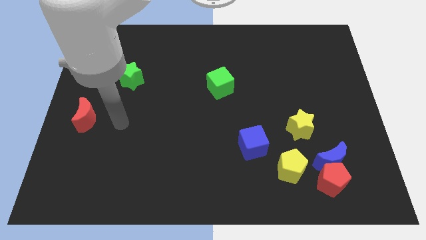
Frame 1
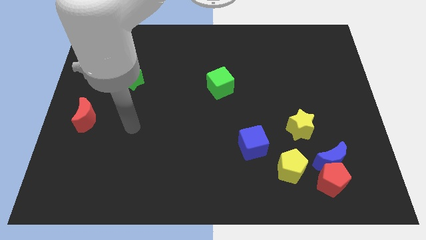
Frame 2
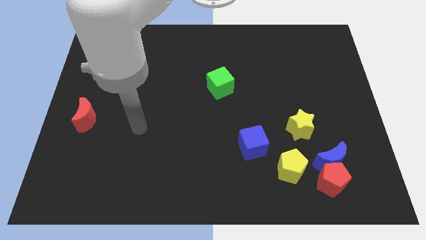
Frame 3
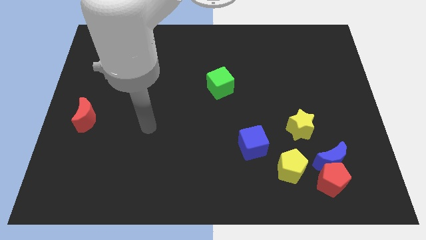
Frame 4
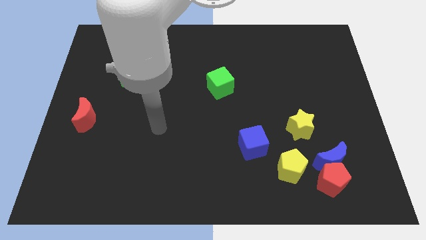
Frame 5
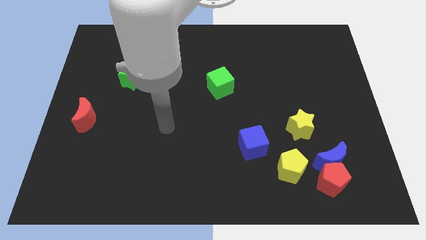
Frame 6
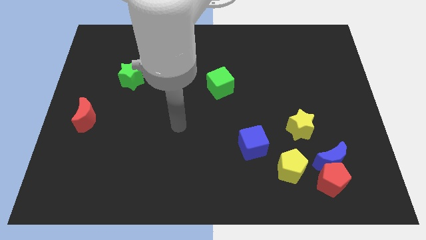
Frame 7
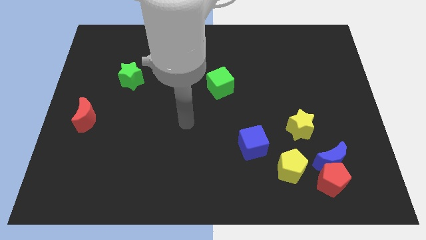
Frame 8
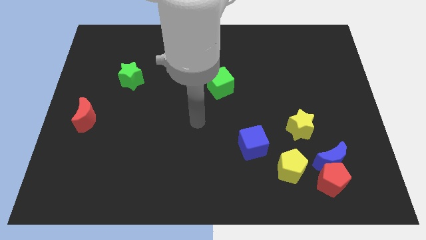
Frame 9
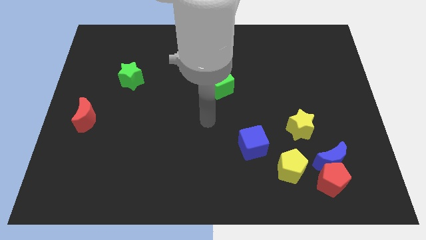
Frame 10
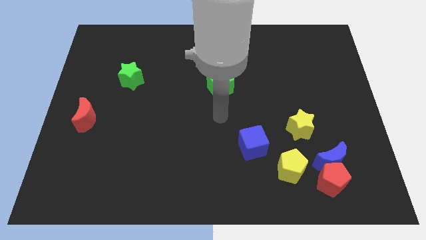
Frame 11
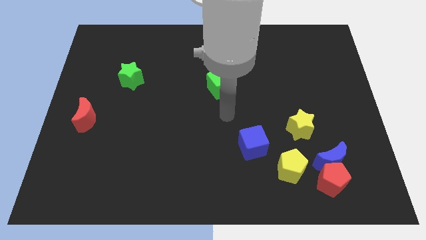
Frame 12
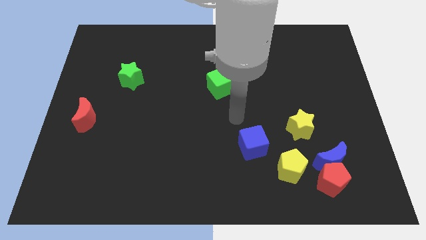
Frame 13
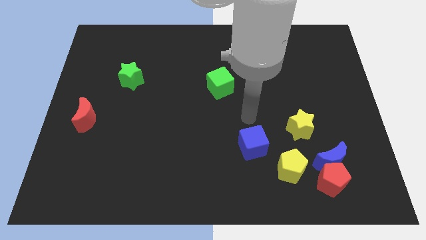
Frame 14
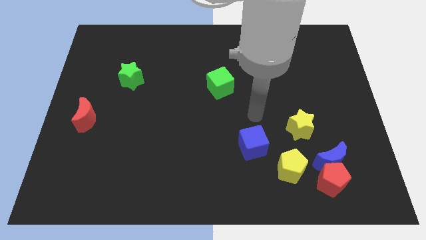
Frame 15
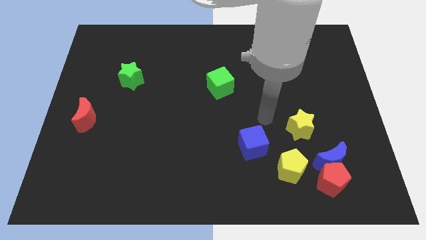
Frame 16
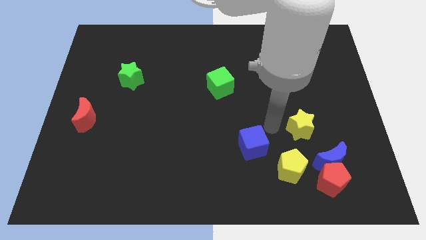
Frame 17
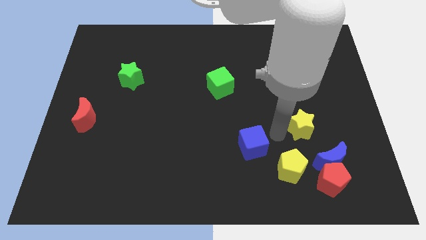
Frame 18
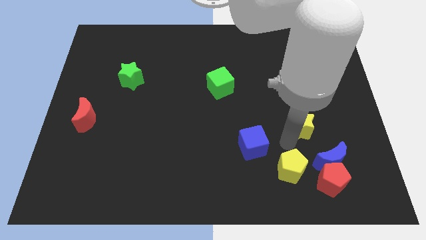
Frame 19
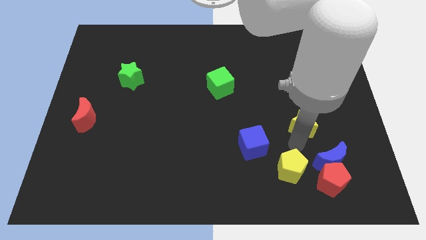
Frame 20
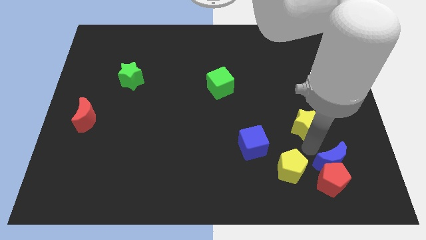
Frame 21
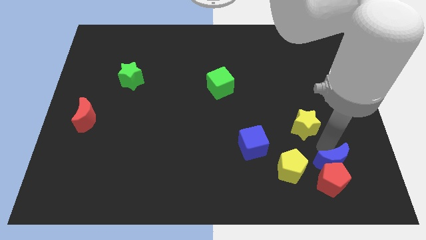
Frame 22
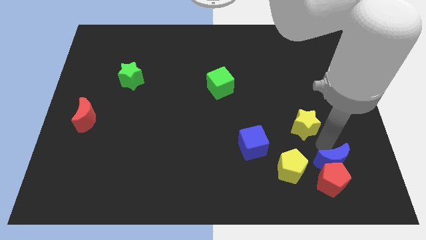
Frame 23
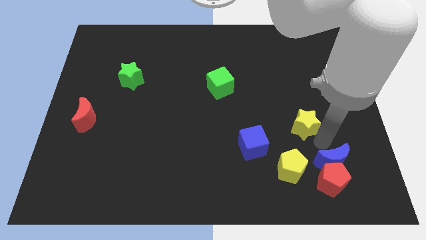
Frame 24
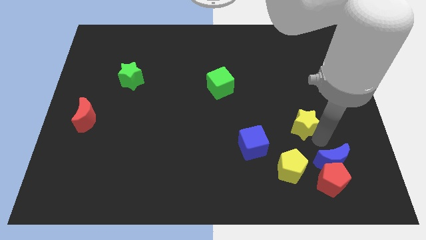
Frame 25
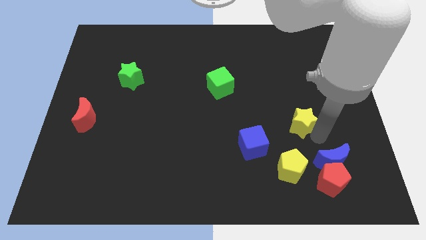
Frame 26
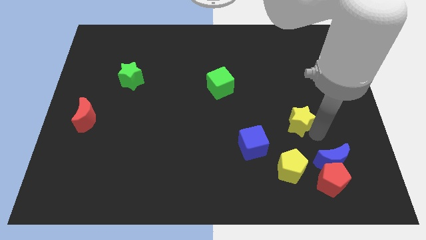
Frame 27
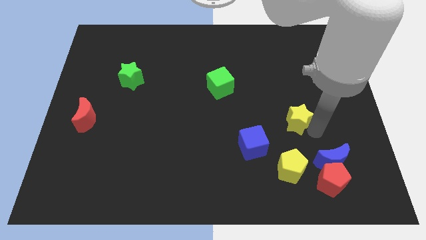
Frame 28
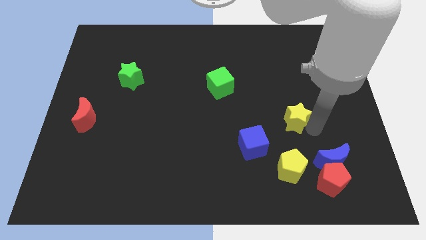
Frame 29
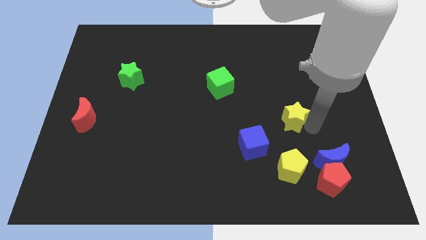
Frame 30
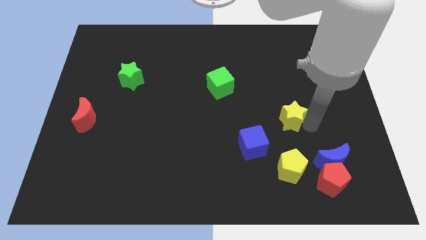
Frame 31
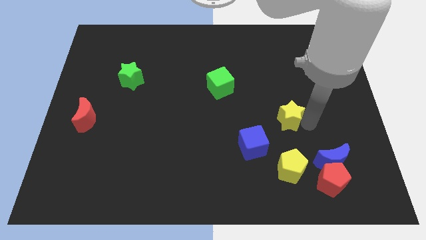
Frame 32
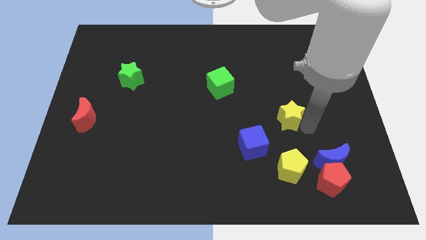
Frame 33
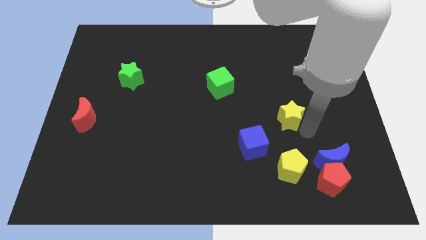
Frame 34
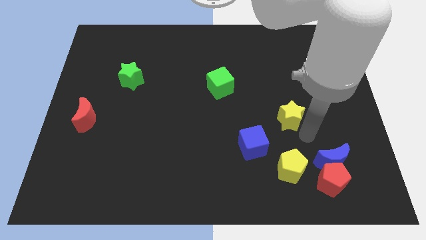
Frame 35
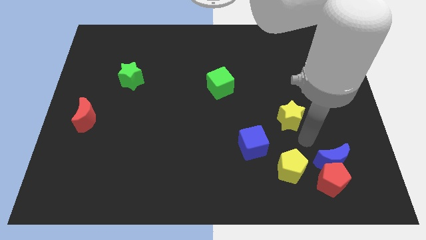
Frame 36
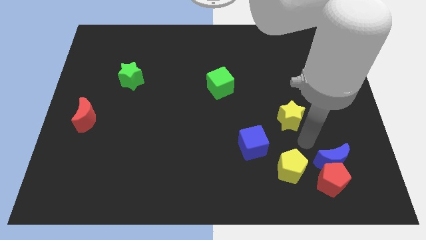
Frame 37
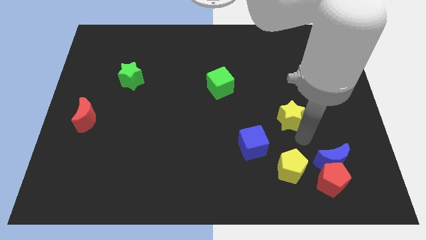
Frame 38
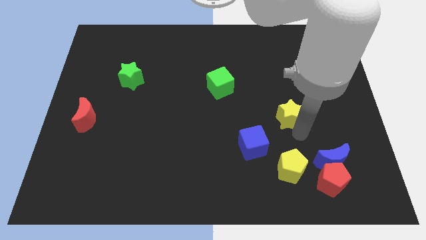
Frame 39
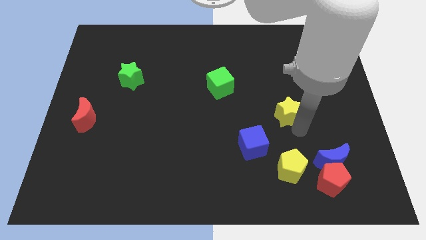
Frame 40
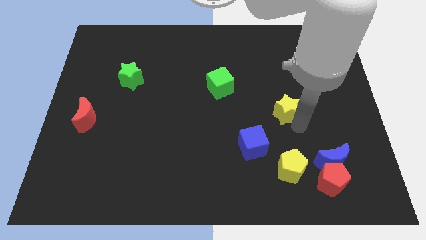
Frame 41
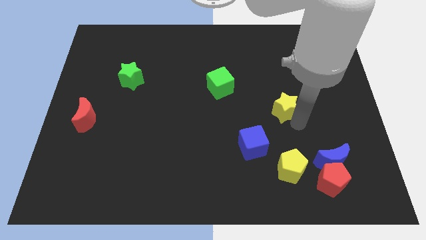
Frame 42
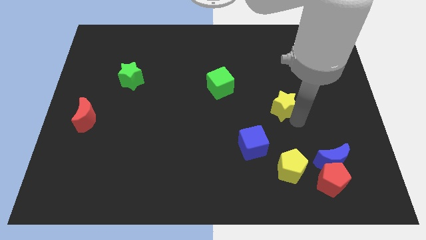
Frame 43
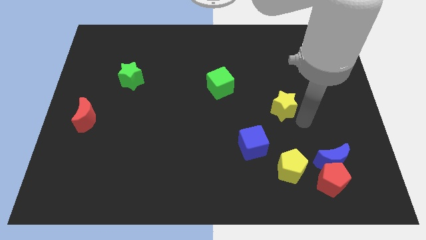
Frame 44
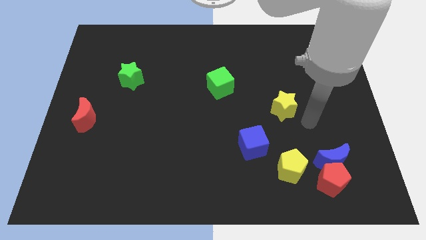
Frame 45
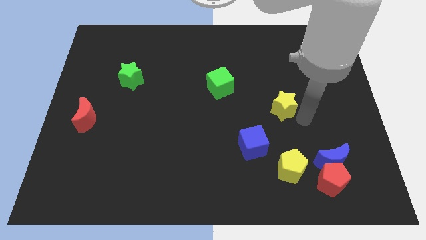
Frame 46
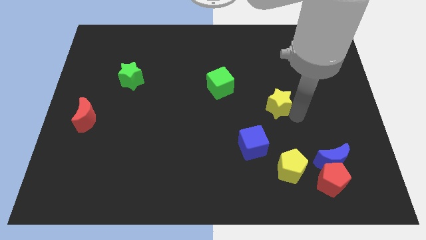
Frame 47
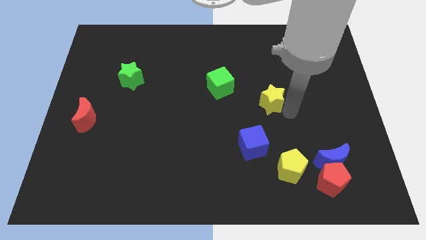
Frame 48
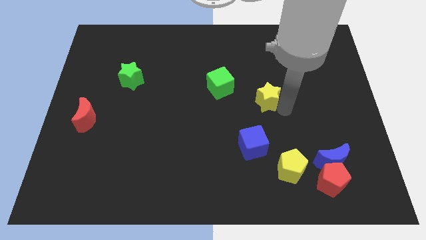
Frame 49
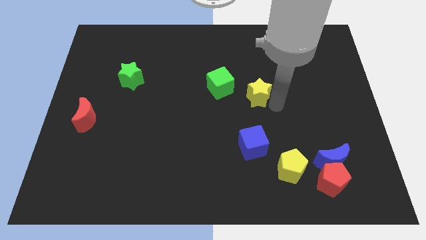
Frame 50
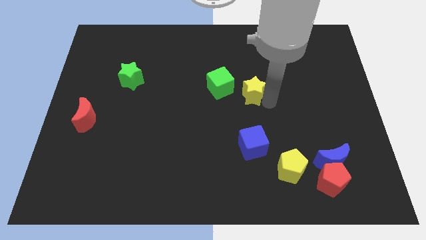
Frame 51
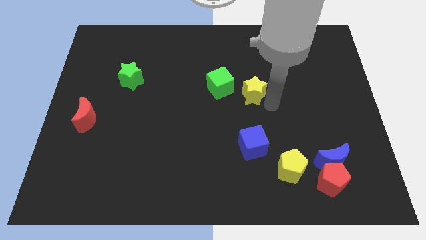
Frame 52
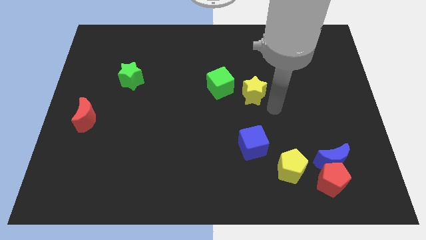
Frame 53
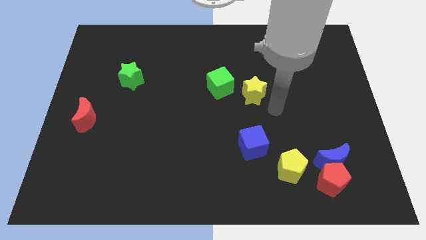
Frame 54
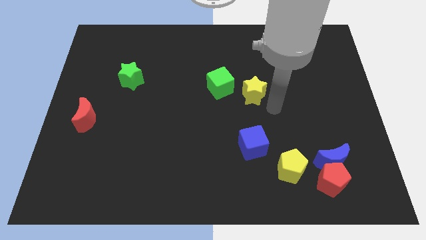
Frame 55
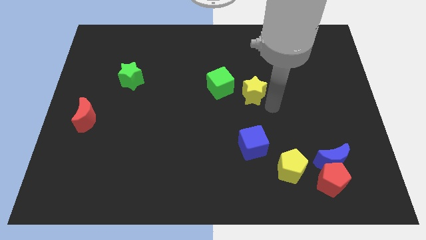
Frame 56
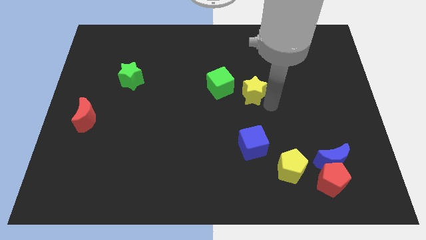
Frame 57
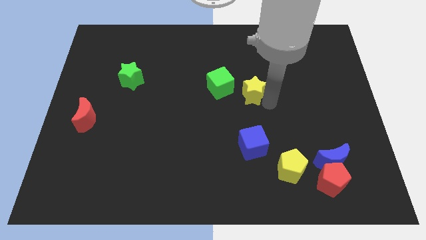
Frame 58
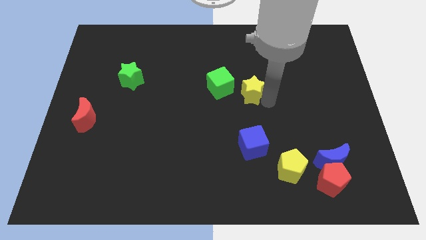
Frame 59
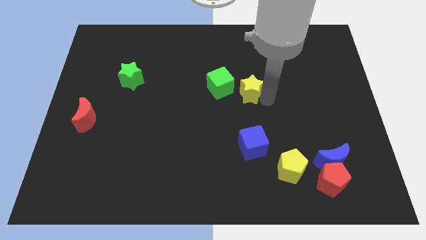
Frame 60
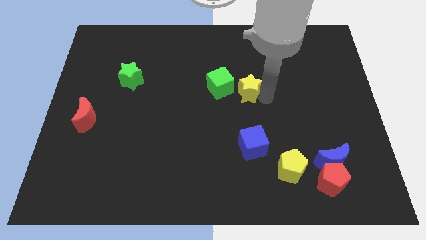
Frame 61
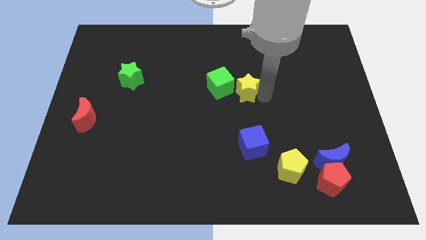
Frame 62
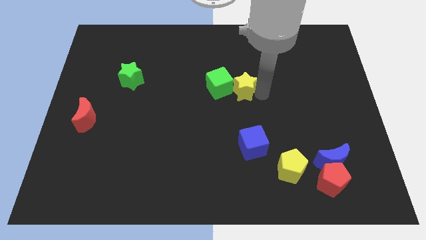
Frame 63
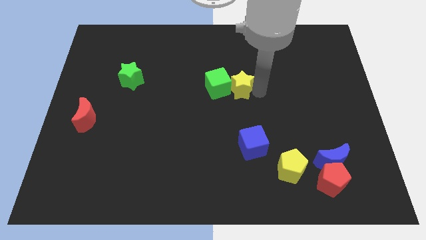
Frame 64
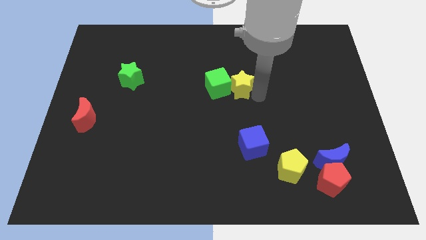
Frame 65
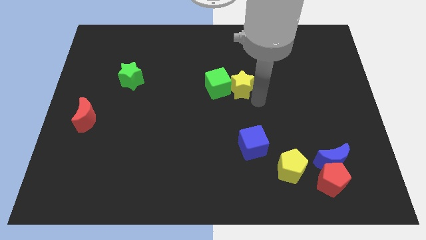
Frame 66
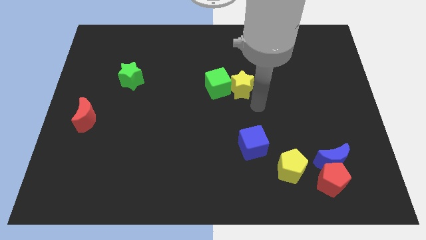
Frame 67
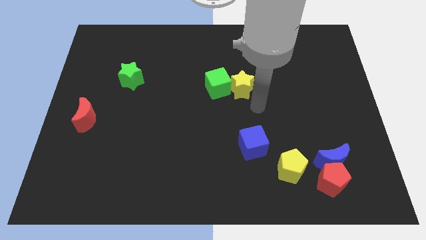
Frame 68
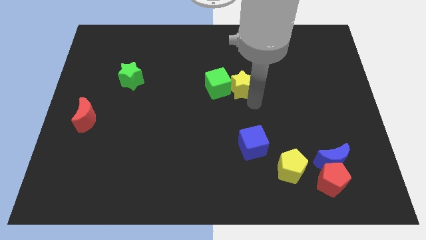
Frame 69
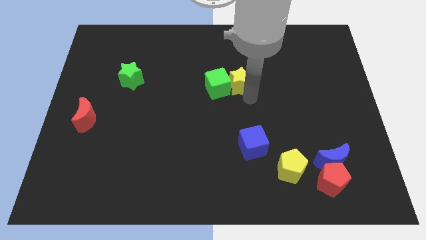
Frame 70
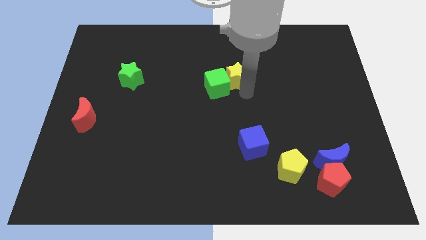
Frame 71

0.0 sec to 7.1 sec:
push the yellow star upwards and then left

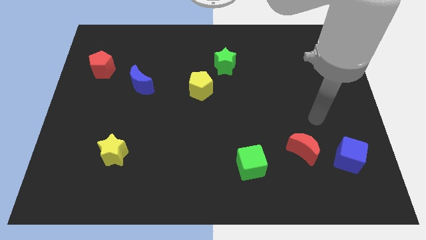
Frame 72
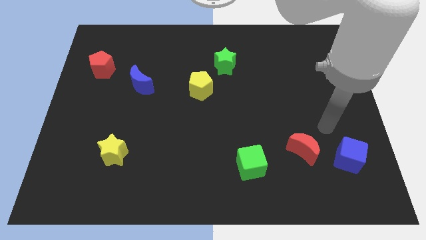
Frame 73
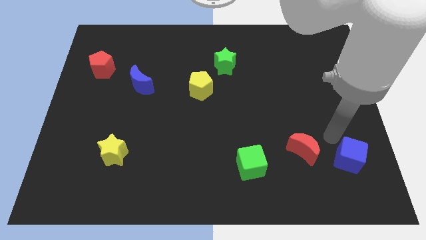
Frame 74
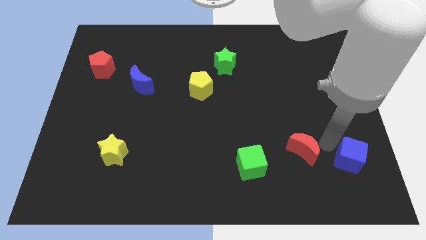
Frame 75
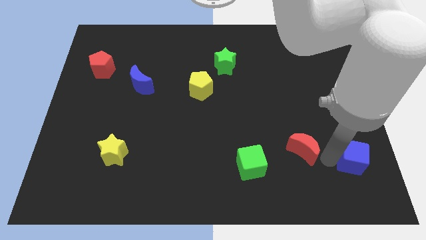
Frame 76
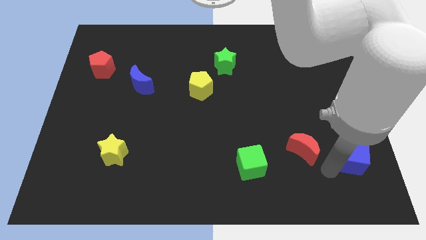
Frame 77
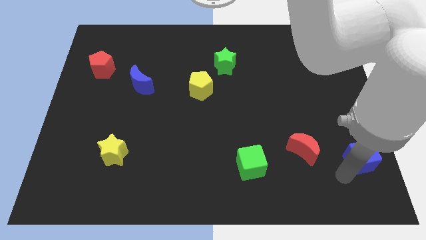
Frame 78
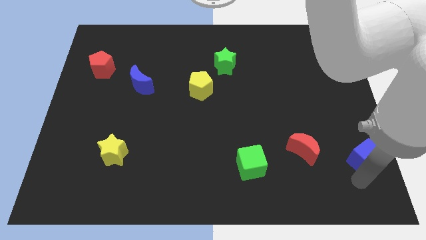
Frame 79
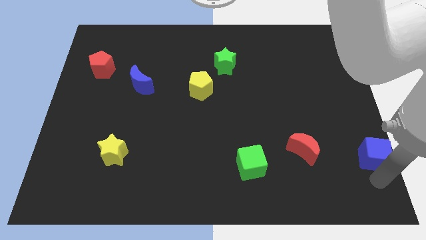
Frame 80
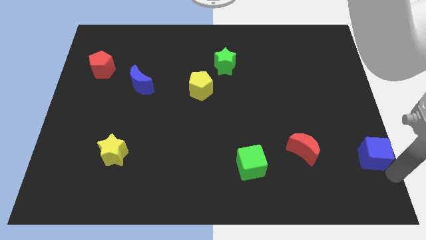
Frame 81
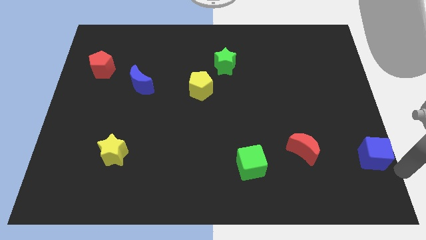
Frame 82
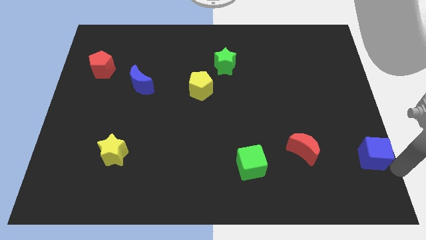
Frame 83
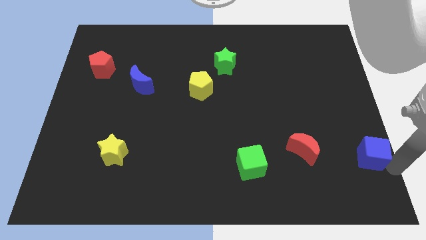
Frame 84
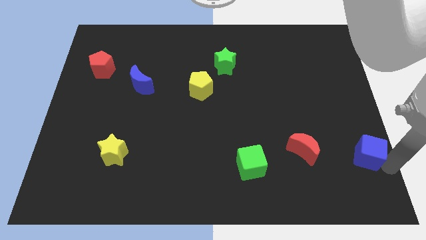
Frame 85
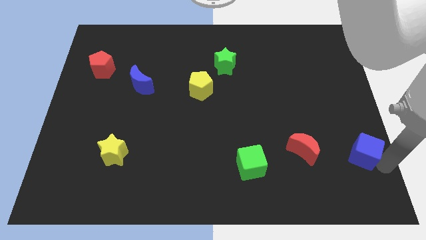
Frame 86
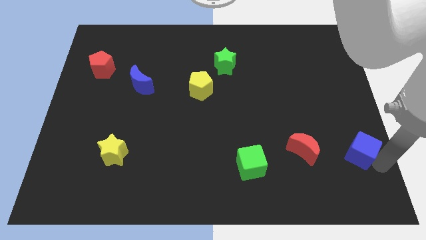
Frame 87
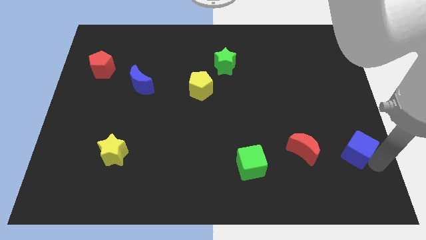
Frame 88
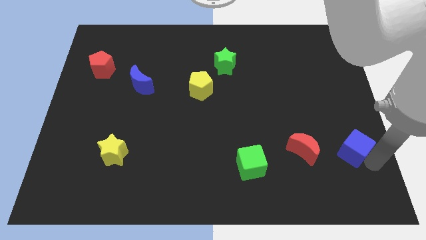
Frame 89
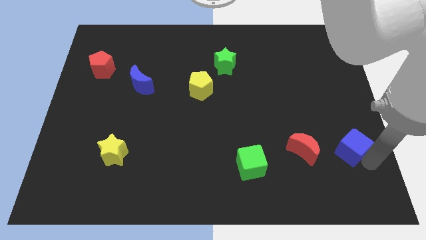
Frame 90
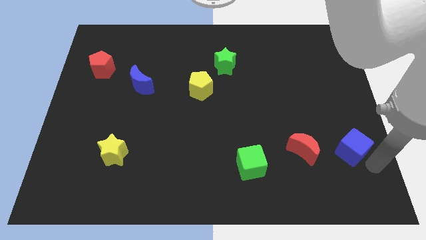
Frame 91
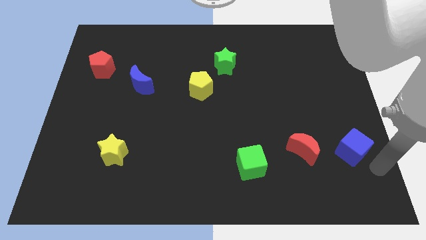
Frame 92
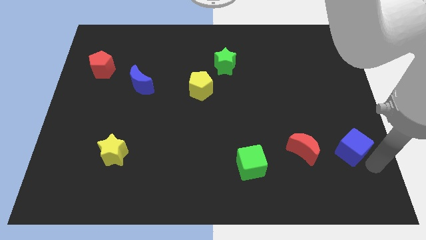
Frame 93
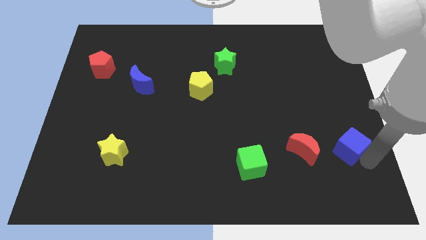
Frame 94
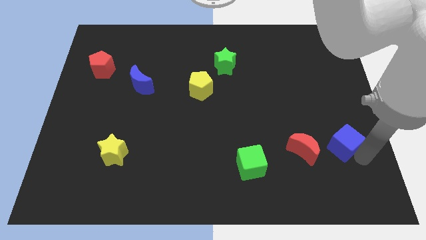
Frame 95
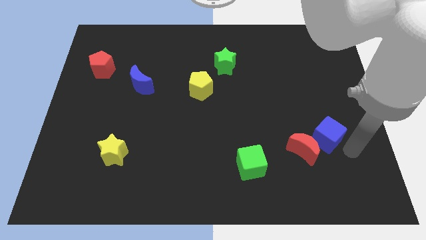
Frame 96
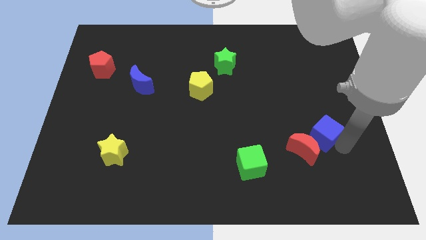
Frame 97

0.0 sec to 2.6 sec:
slide the blue cube upwards and left a little
